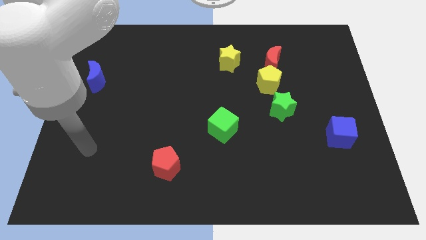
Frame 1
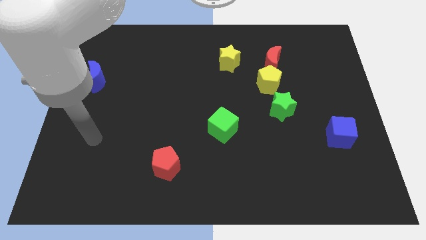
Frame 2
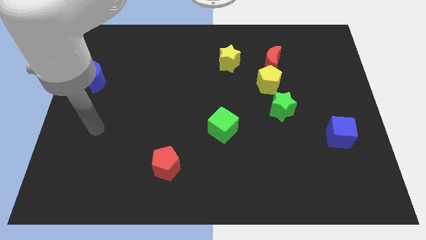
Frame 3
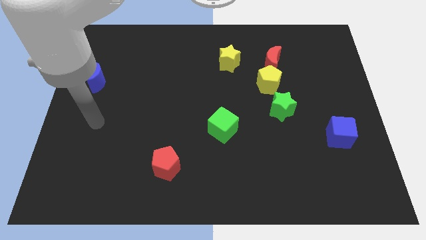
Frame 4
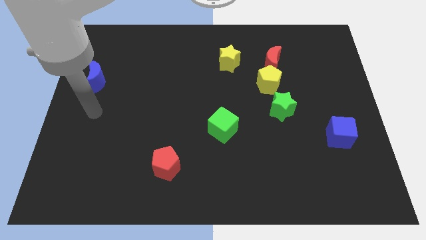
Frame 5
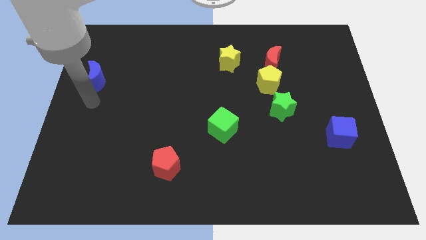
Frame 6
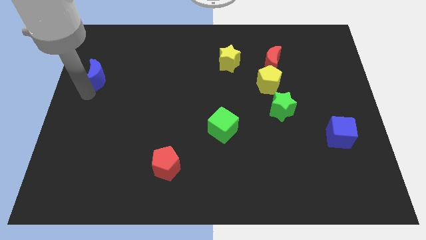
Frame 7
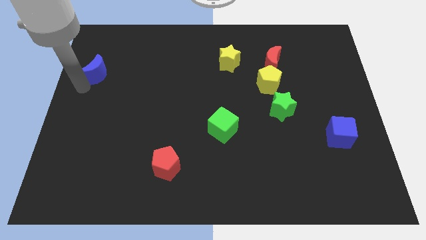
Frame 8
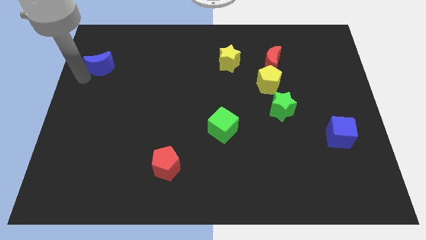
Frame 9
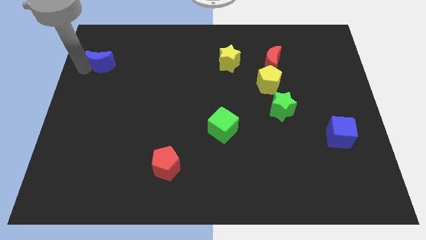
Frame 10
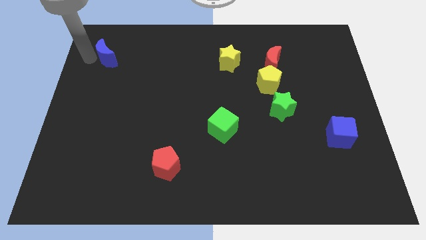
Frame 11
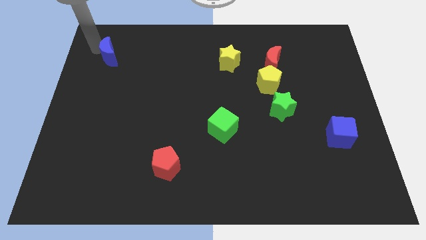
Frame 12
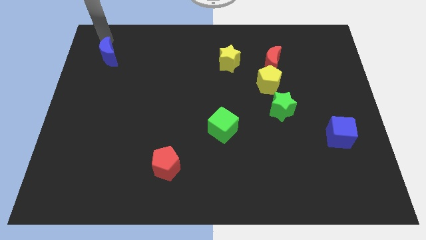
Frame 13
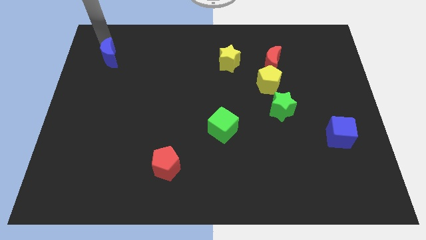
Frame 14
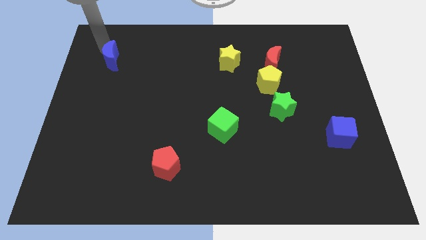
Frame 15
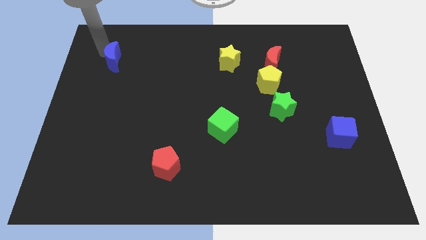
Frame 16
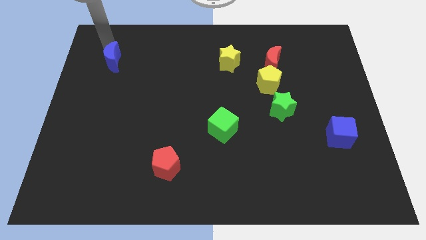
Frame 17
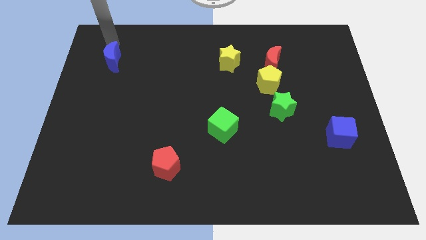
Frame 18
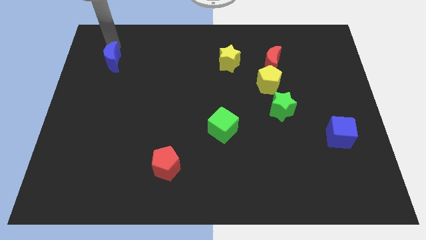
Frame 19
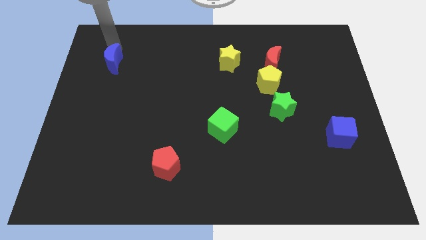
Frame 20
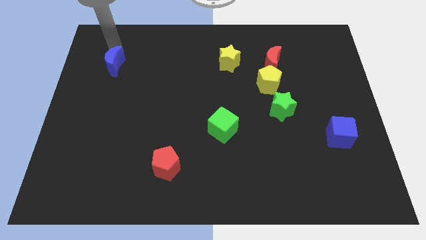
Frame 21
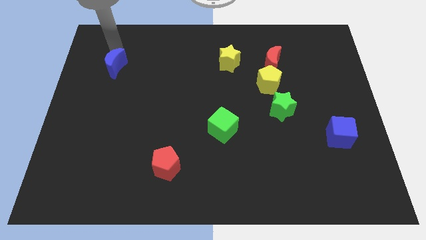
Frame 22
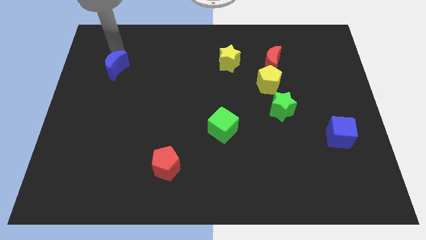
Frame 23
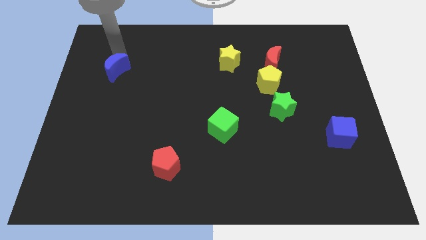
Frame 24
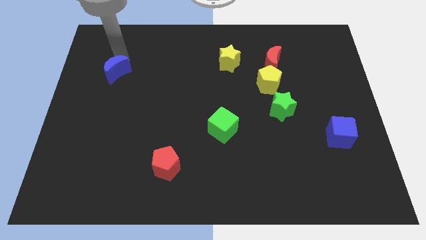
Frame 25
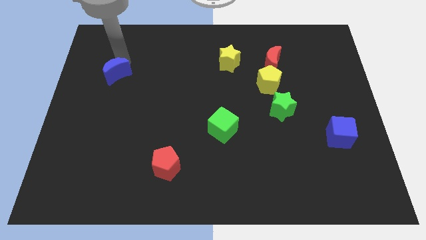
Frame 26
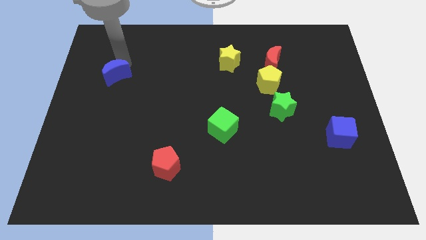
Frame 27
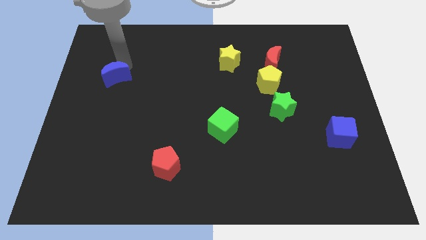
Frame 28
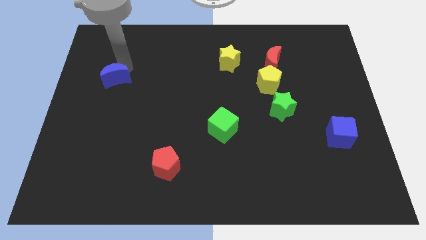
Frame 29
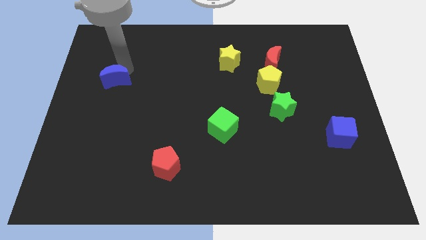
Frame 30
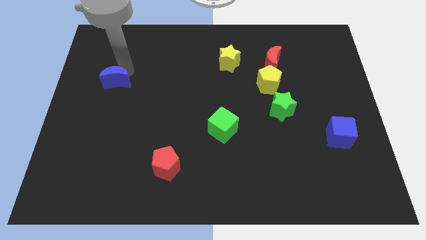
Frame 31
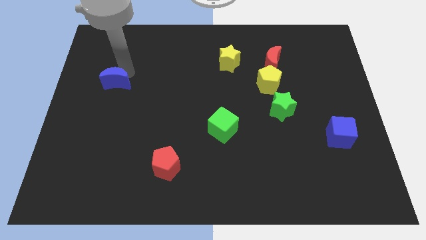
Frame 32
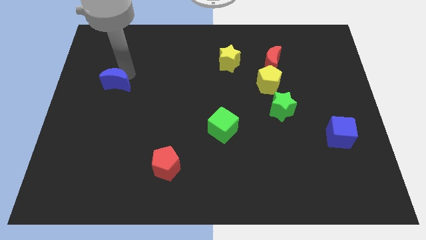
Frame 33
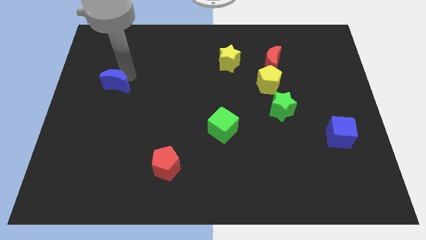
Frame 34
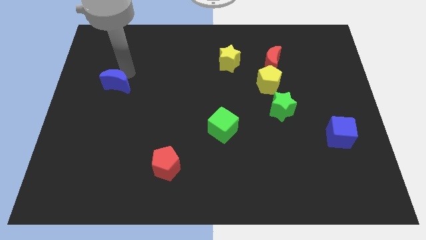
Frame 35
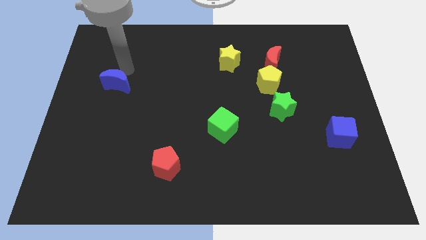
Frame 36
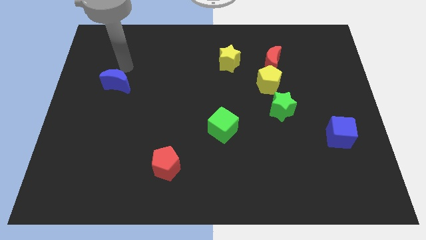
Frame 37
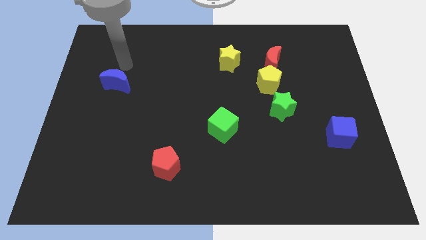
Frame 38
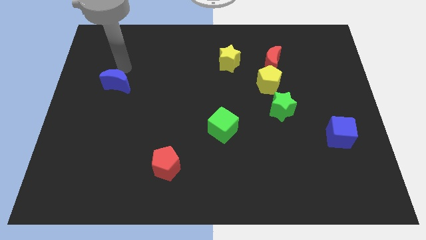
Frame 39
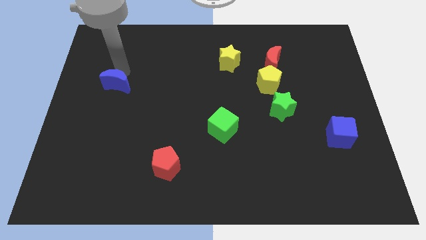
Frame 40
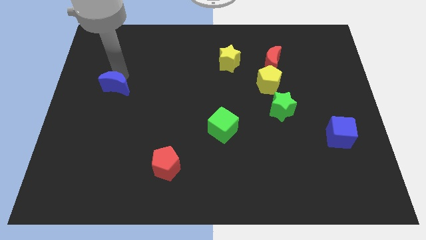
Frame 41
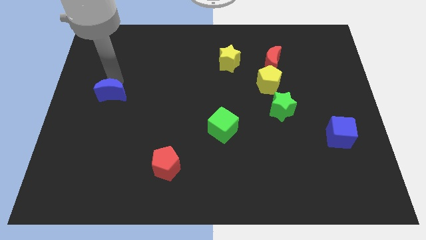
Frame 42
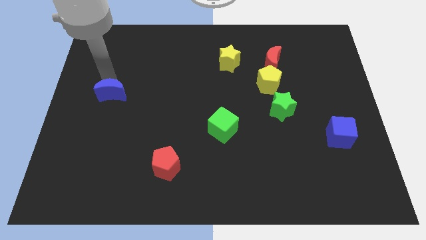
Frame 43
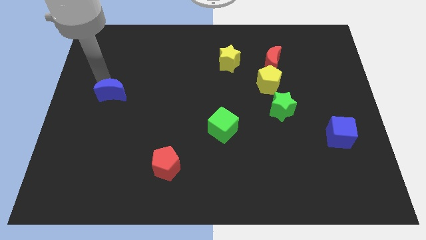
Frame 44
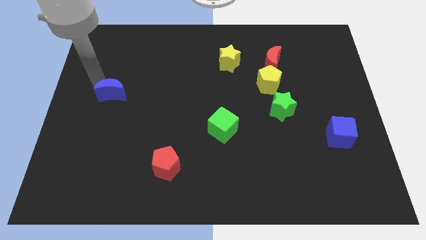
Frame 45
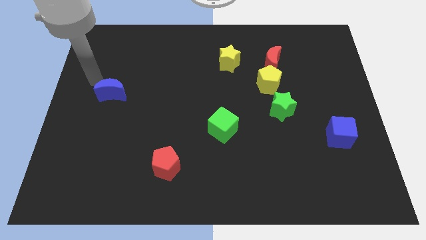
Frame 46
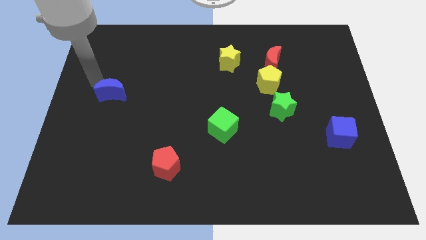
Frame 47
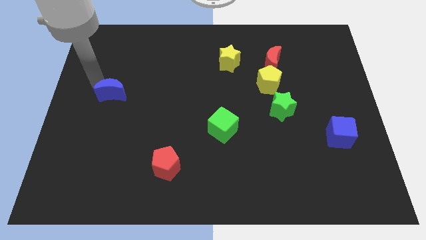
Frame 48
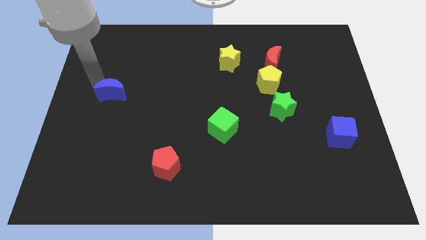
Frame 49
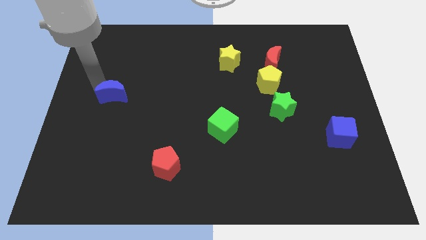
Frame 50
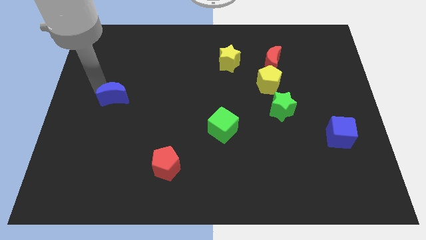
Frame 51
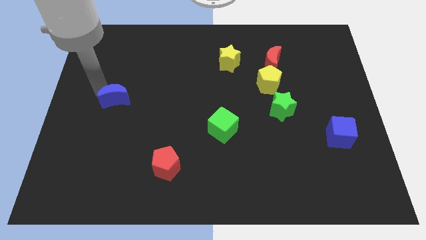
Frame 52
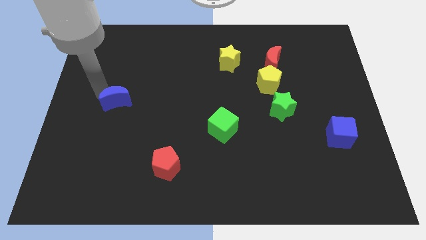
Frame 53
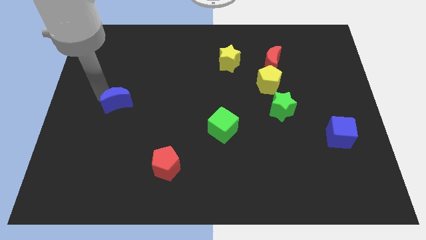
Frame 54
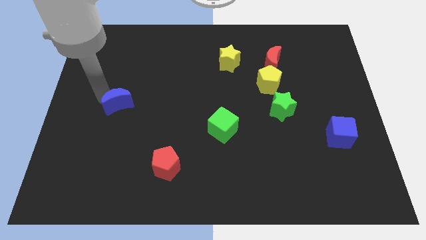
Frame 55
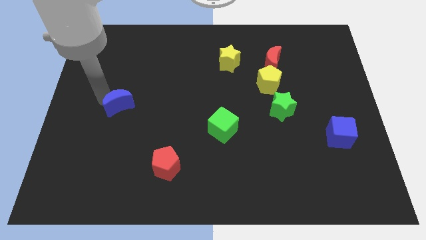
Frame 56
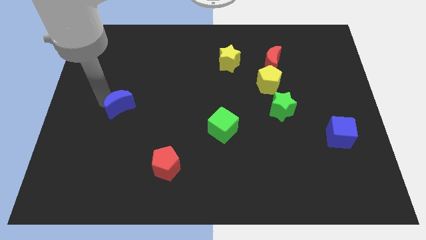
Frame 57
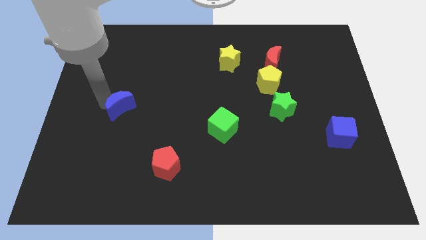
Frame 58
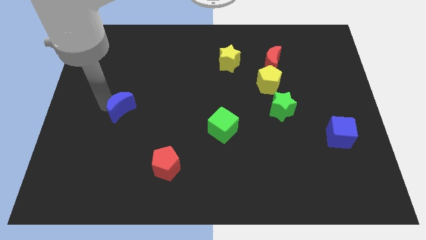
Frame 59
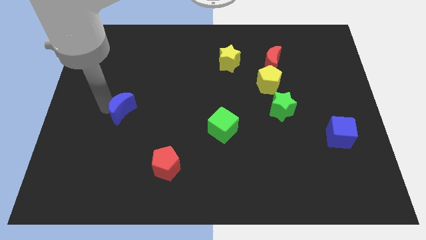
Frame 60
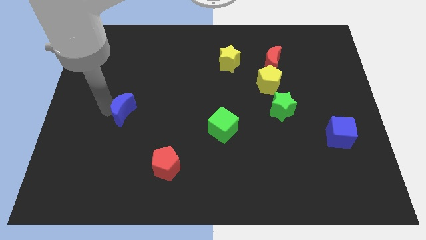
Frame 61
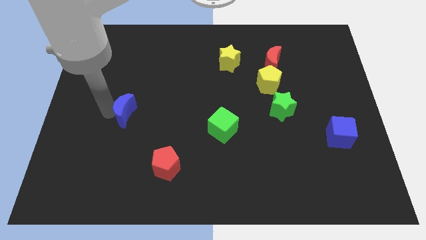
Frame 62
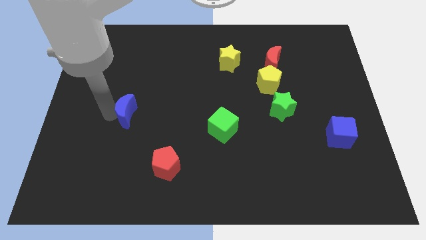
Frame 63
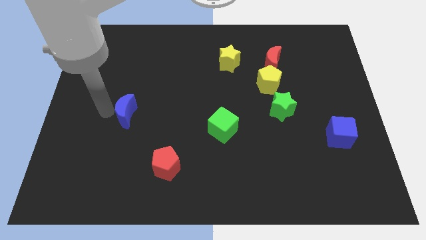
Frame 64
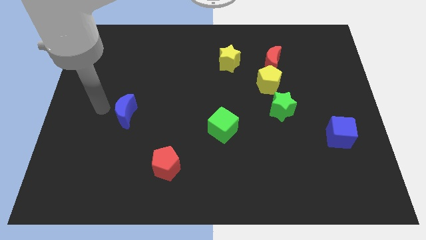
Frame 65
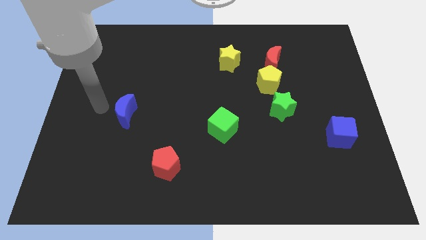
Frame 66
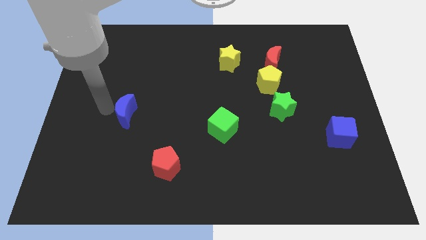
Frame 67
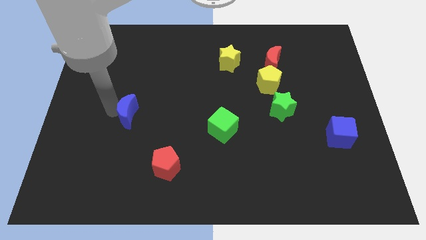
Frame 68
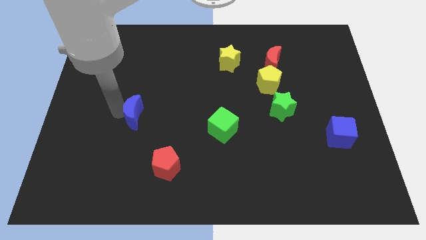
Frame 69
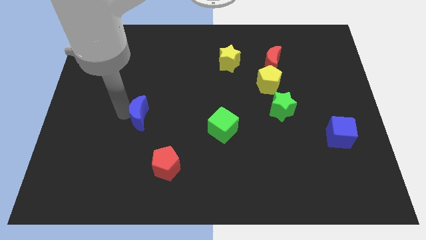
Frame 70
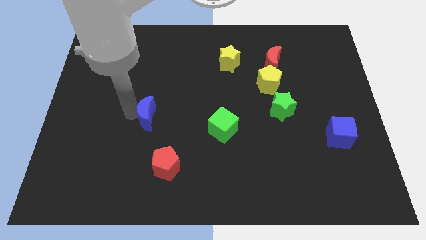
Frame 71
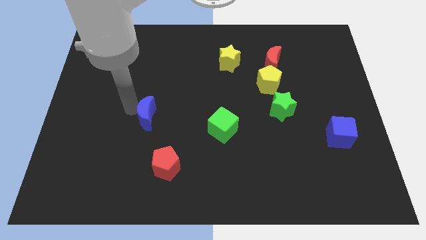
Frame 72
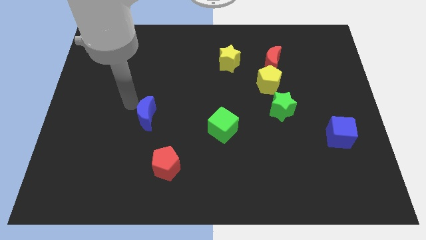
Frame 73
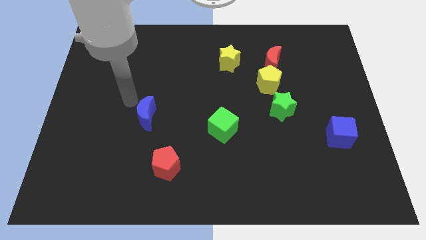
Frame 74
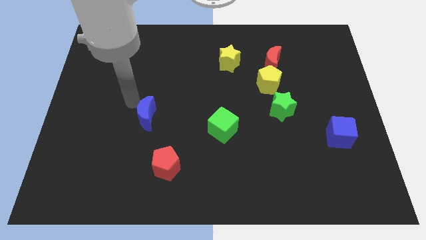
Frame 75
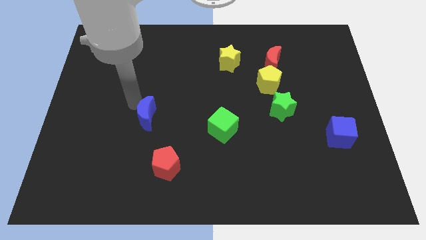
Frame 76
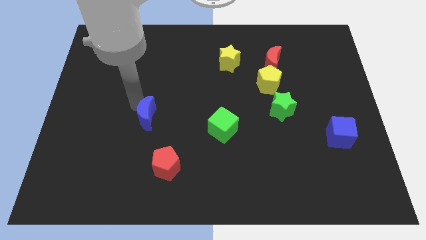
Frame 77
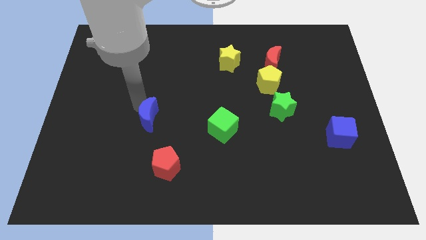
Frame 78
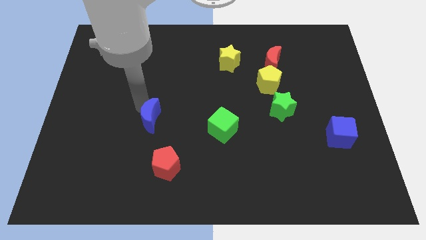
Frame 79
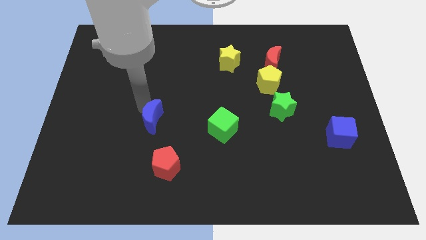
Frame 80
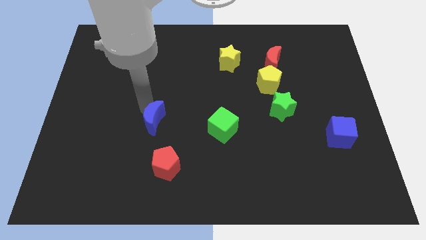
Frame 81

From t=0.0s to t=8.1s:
push the blue moon diagonally downwards and to the right
